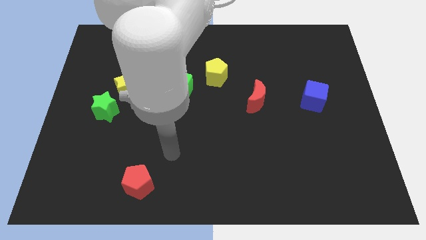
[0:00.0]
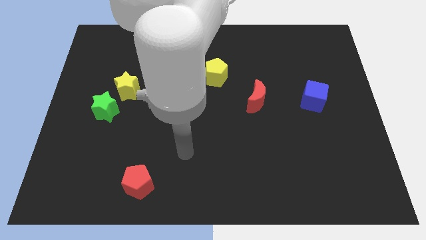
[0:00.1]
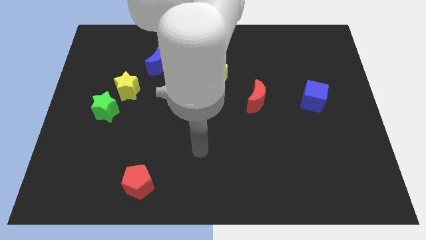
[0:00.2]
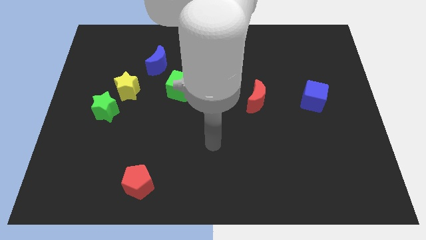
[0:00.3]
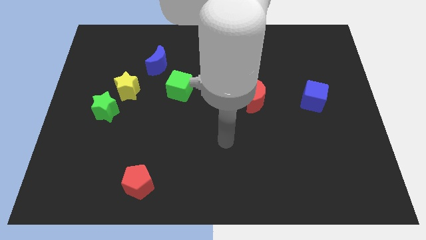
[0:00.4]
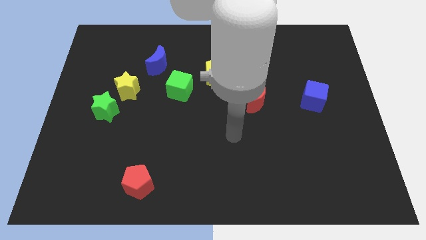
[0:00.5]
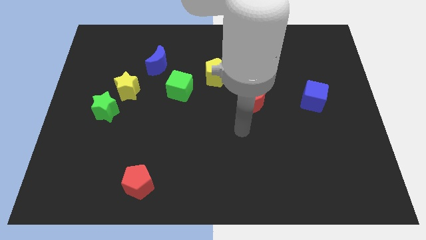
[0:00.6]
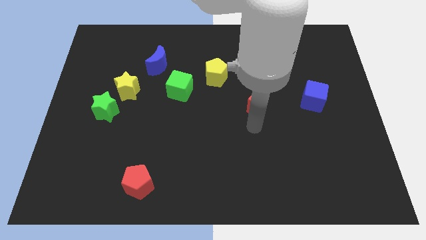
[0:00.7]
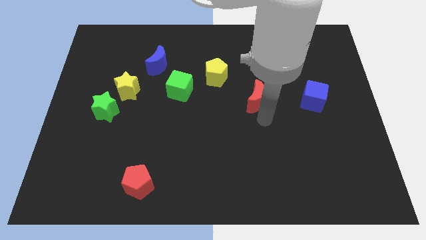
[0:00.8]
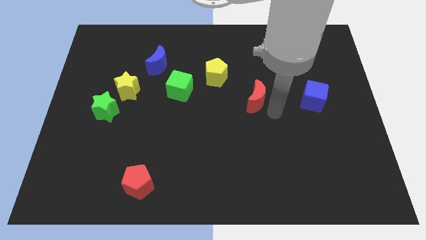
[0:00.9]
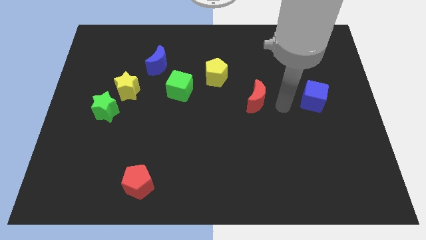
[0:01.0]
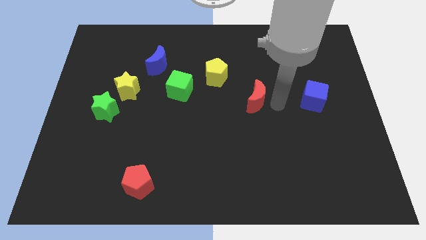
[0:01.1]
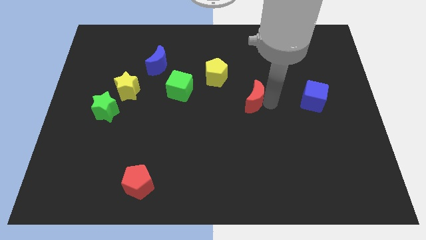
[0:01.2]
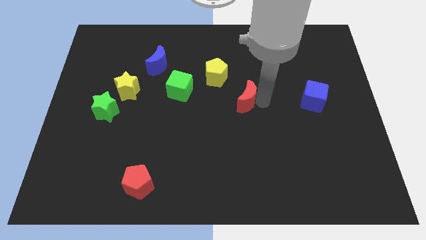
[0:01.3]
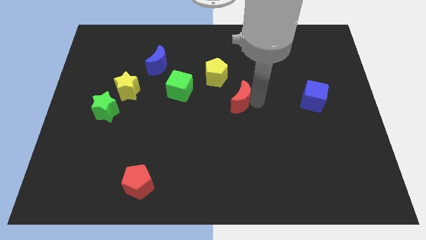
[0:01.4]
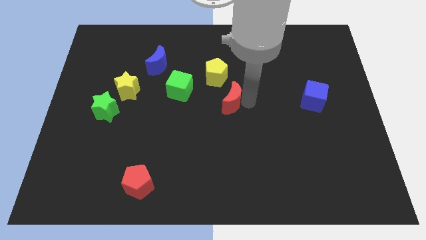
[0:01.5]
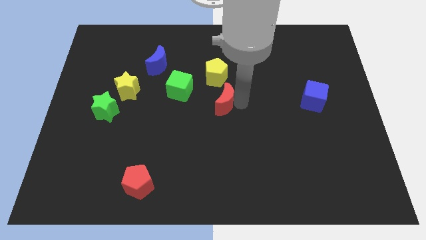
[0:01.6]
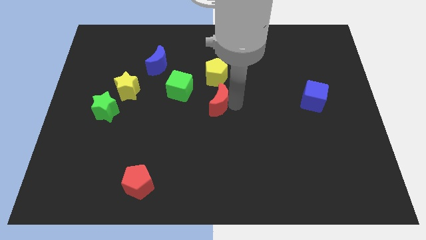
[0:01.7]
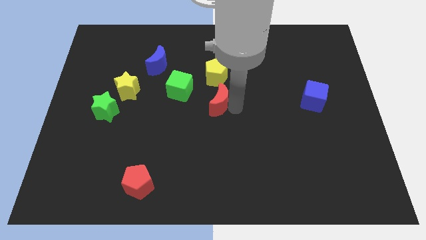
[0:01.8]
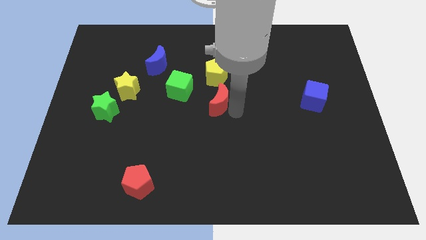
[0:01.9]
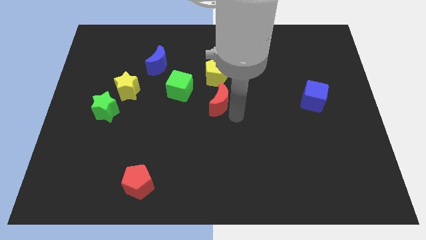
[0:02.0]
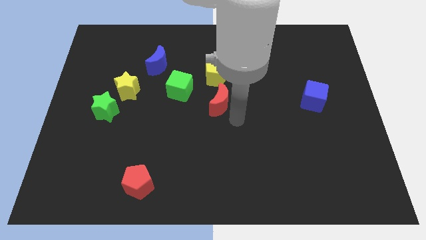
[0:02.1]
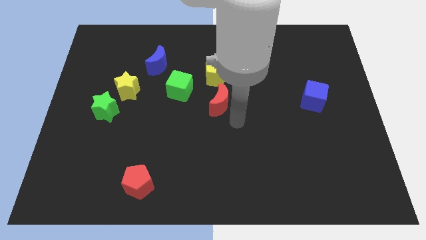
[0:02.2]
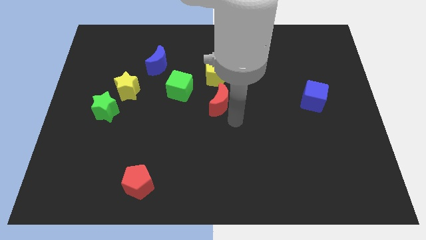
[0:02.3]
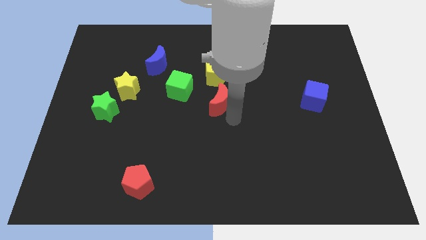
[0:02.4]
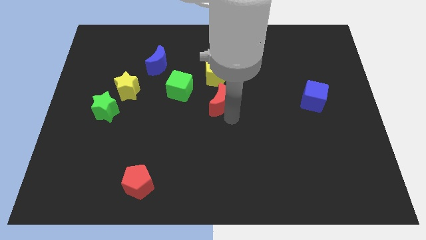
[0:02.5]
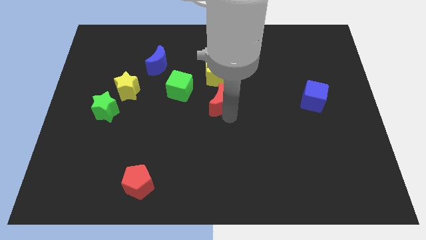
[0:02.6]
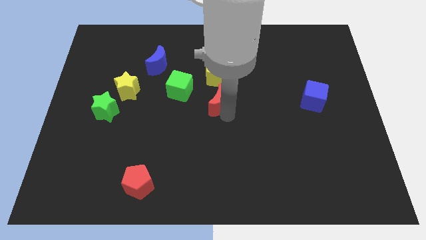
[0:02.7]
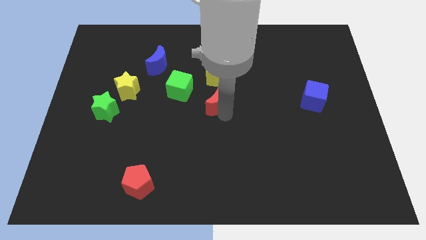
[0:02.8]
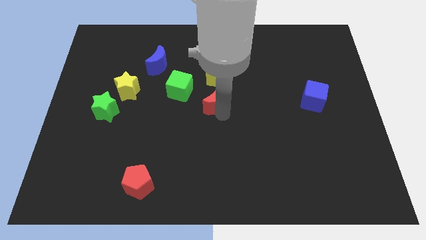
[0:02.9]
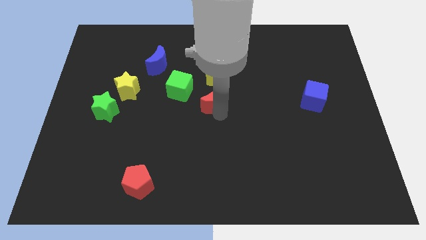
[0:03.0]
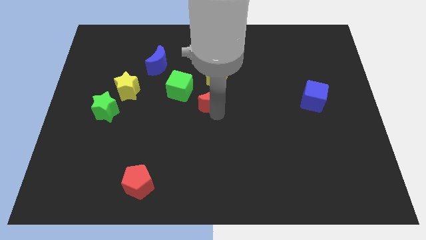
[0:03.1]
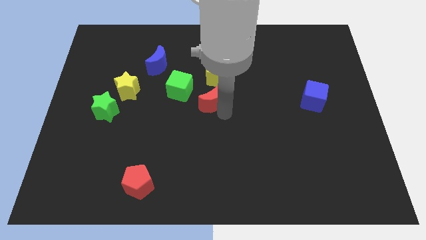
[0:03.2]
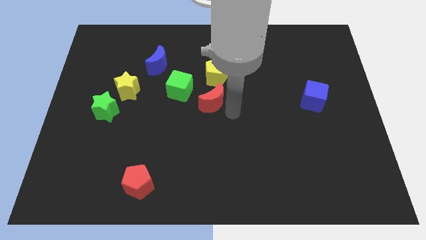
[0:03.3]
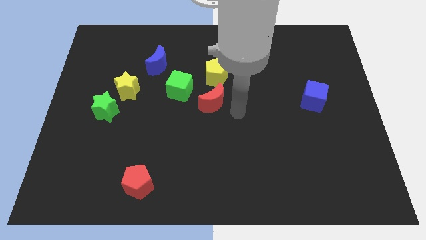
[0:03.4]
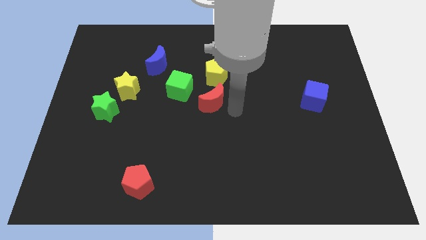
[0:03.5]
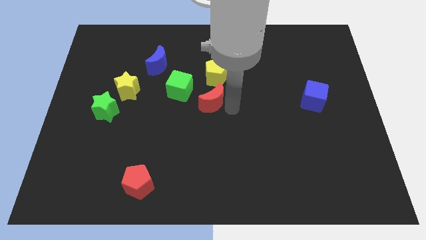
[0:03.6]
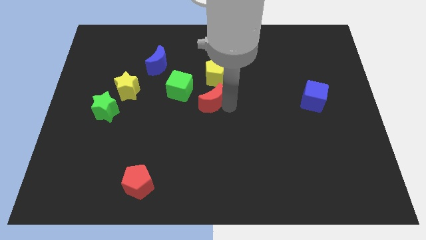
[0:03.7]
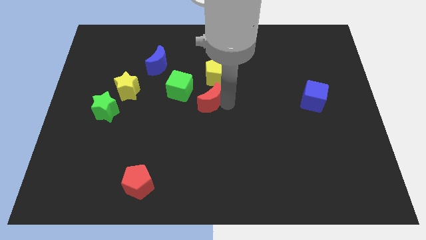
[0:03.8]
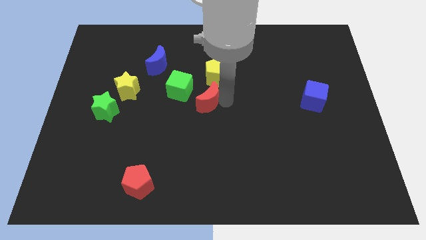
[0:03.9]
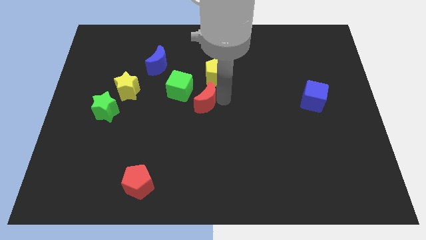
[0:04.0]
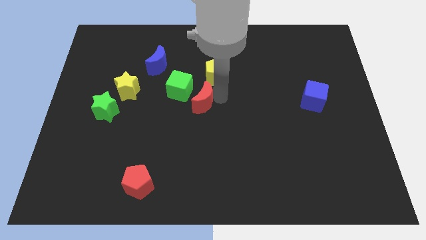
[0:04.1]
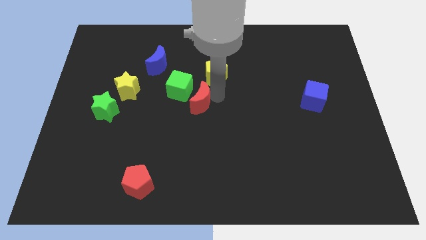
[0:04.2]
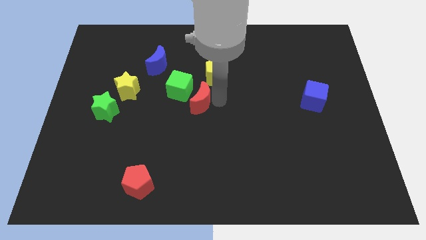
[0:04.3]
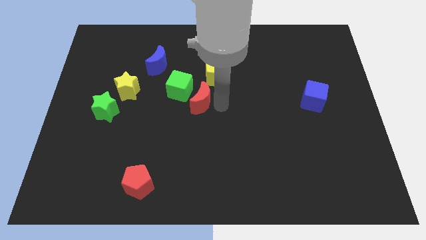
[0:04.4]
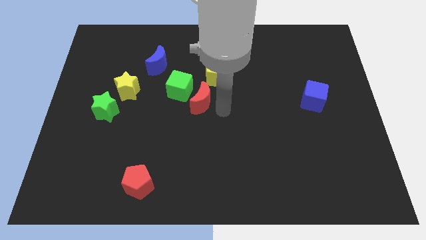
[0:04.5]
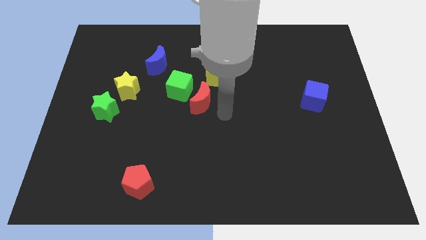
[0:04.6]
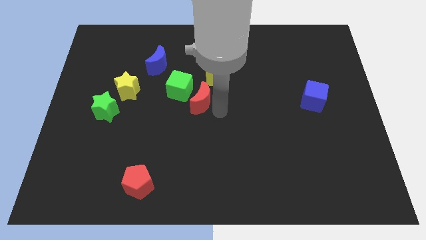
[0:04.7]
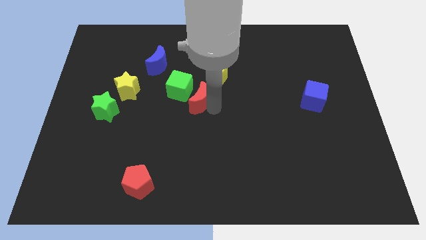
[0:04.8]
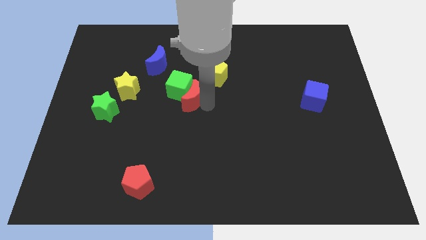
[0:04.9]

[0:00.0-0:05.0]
put the red moon to the green cube

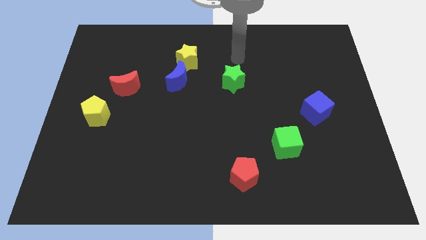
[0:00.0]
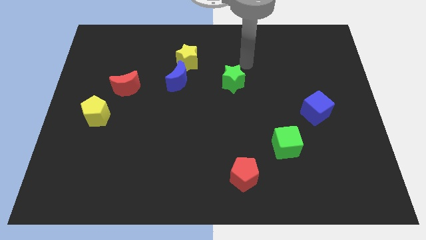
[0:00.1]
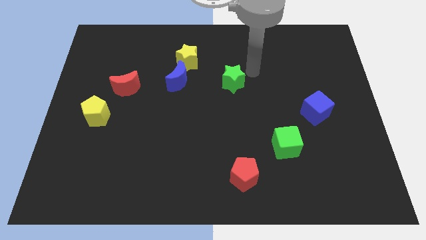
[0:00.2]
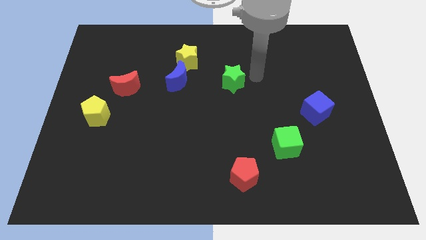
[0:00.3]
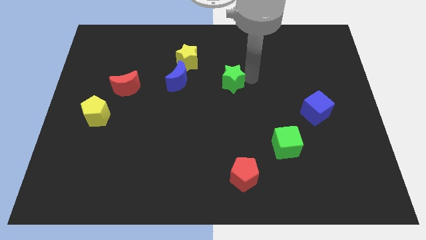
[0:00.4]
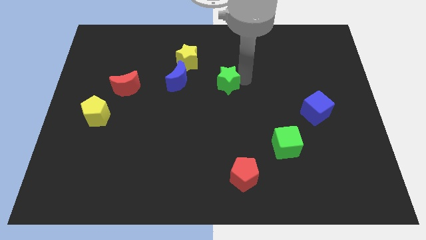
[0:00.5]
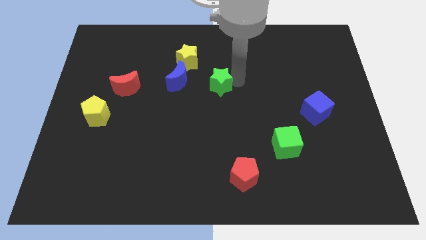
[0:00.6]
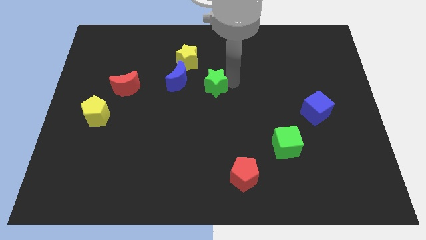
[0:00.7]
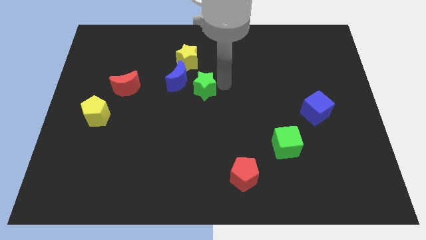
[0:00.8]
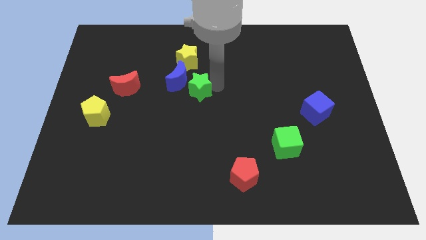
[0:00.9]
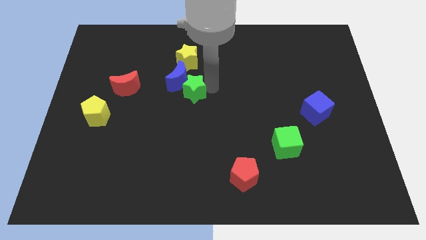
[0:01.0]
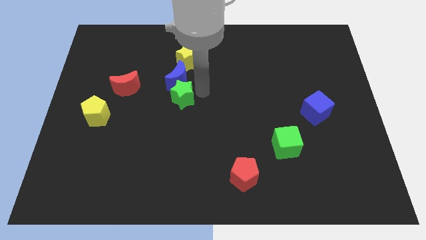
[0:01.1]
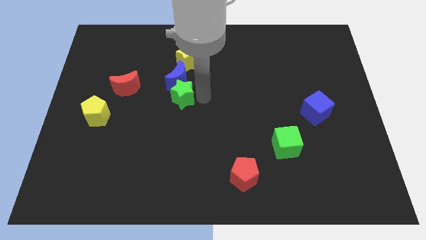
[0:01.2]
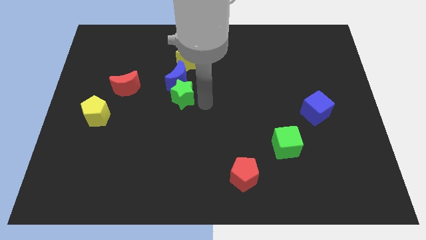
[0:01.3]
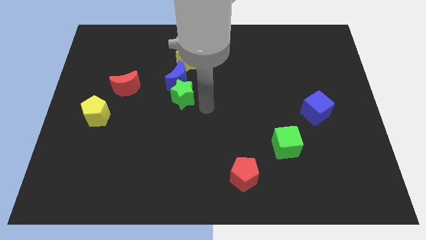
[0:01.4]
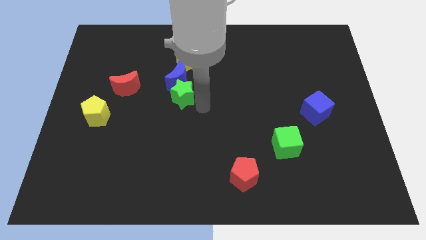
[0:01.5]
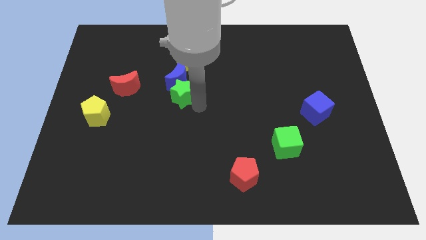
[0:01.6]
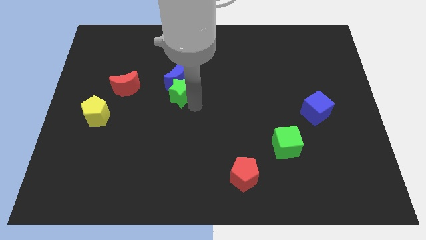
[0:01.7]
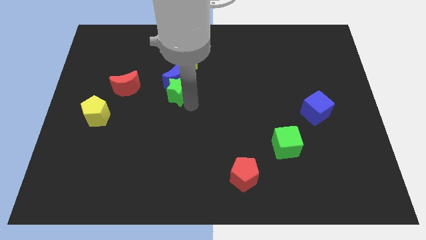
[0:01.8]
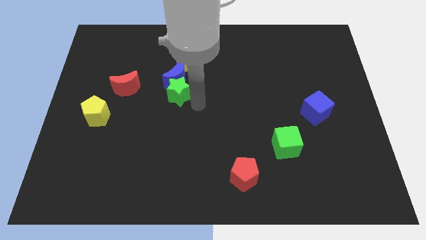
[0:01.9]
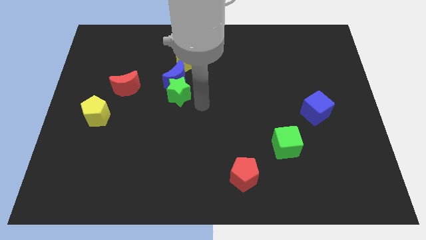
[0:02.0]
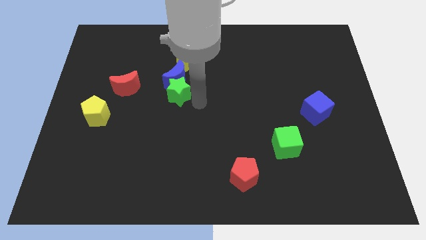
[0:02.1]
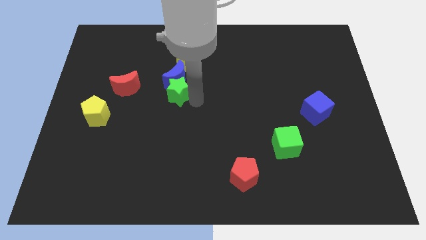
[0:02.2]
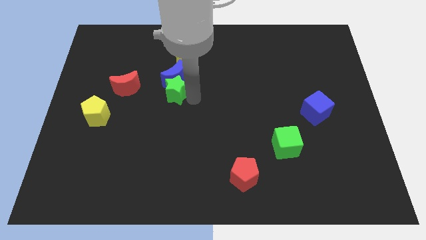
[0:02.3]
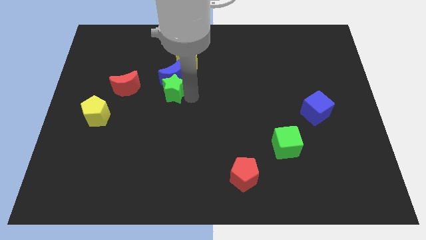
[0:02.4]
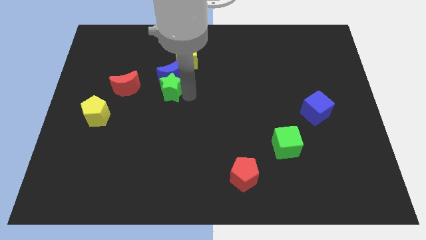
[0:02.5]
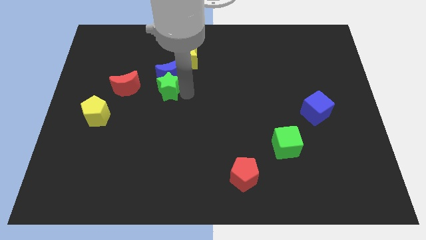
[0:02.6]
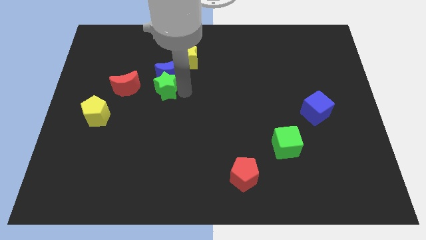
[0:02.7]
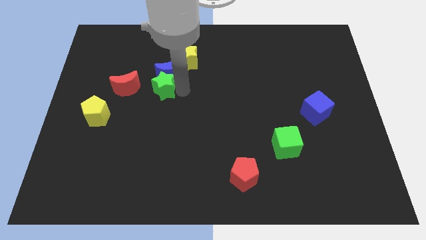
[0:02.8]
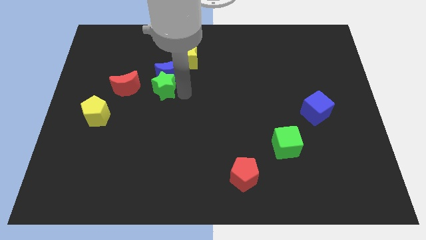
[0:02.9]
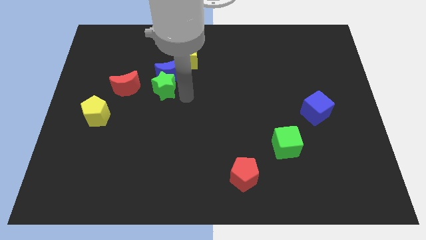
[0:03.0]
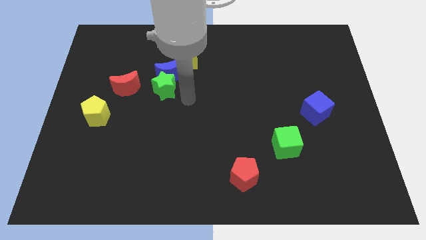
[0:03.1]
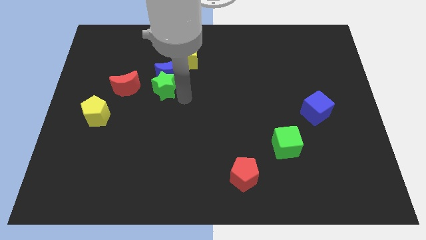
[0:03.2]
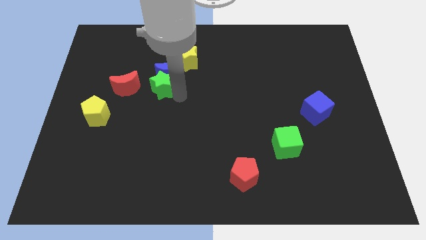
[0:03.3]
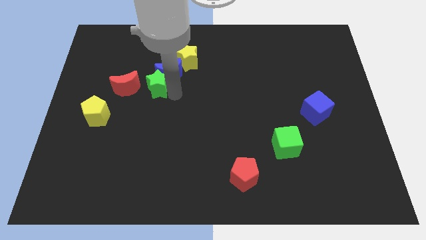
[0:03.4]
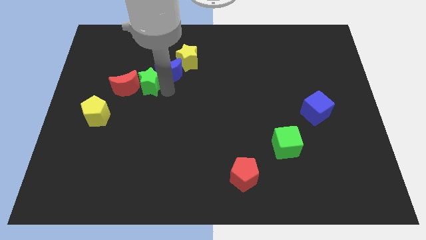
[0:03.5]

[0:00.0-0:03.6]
move the green star to the red moon
